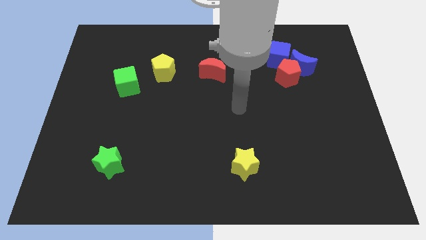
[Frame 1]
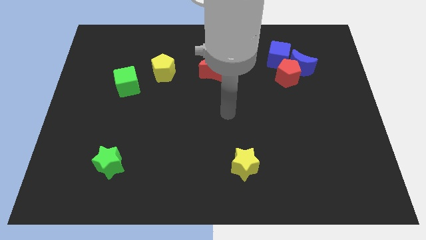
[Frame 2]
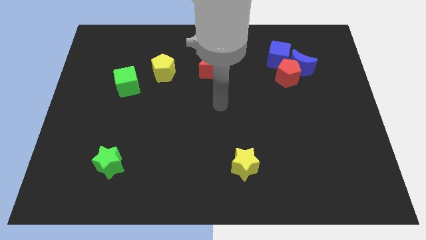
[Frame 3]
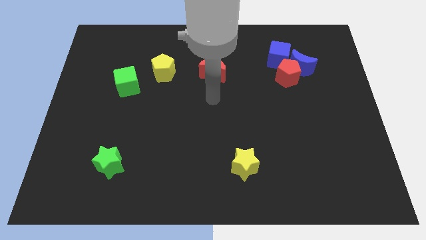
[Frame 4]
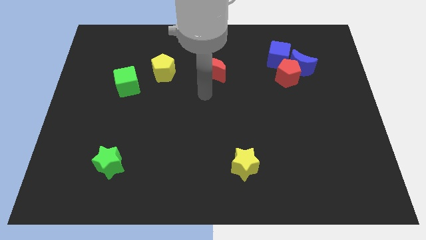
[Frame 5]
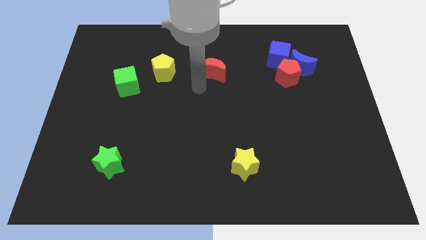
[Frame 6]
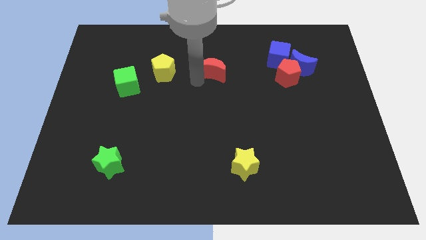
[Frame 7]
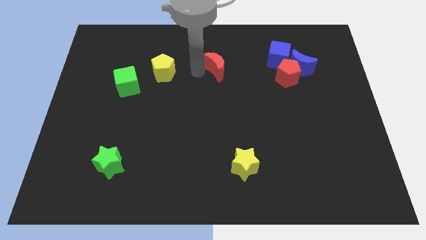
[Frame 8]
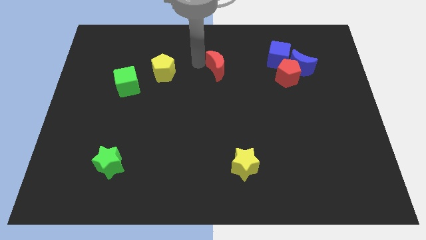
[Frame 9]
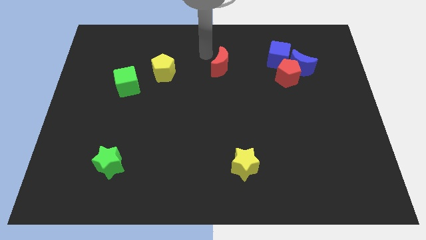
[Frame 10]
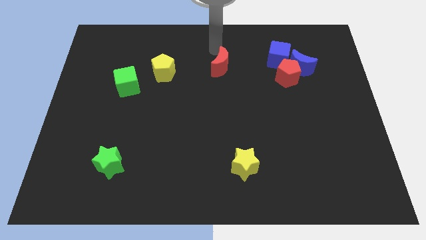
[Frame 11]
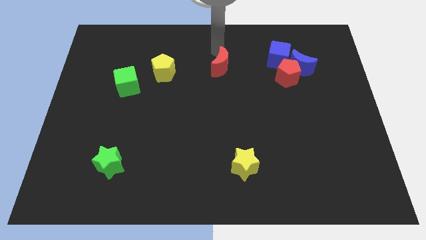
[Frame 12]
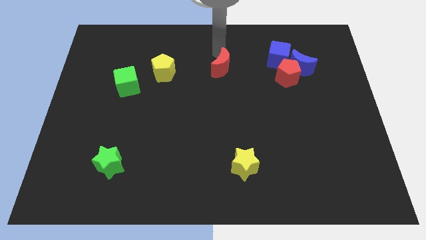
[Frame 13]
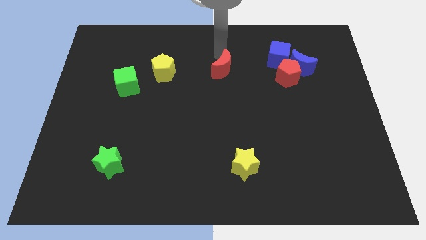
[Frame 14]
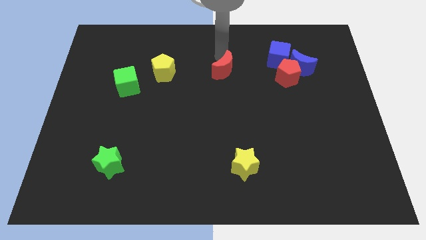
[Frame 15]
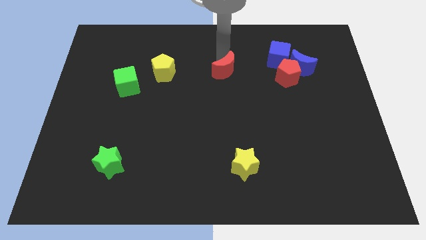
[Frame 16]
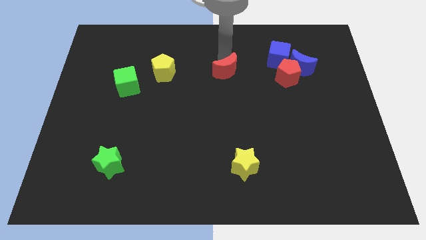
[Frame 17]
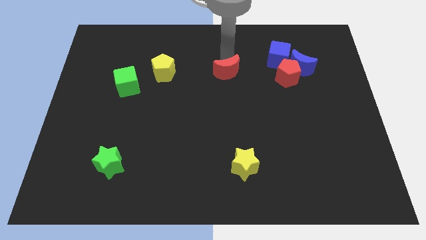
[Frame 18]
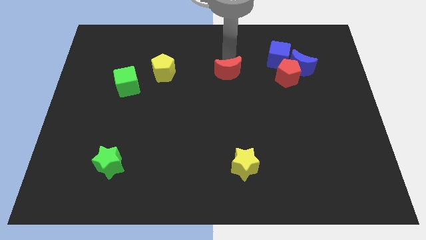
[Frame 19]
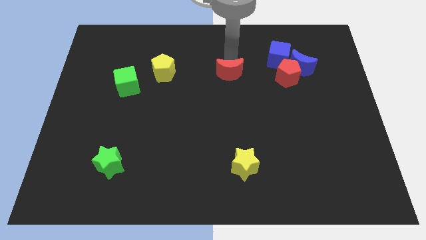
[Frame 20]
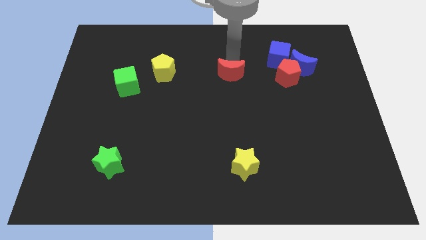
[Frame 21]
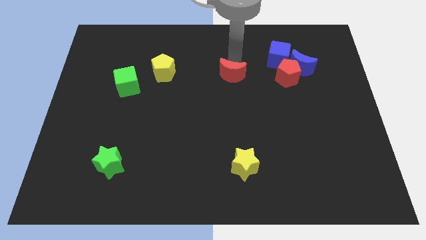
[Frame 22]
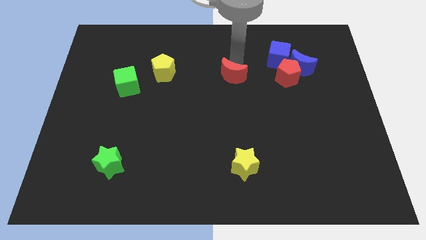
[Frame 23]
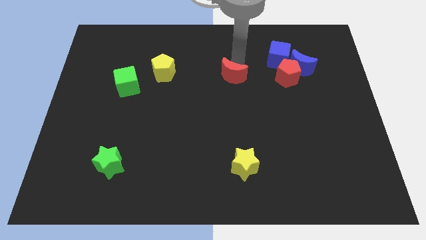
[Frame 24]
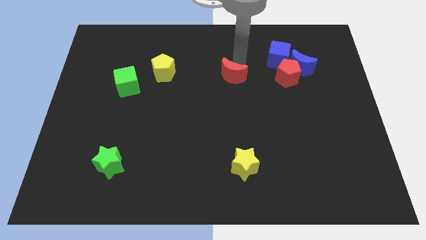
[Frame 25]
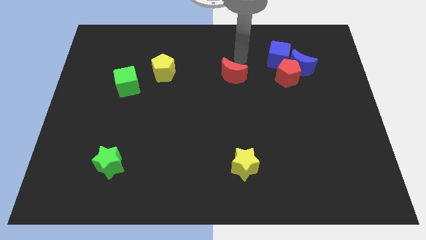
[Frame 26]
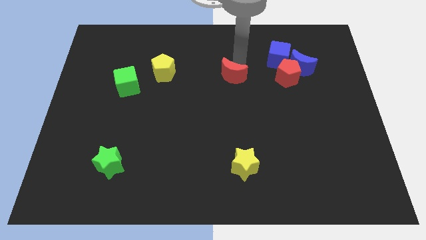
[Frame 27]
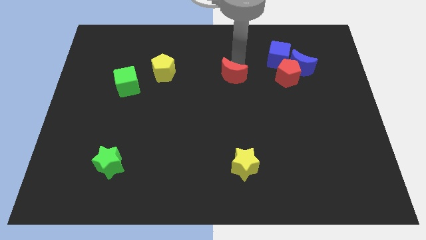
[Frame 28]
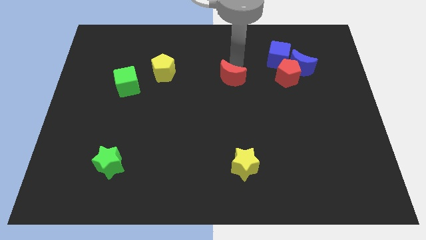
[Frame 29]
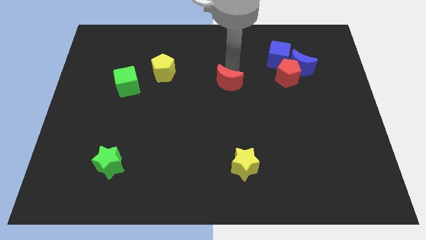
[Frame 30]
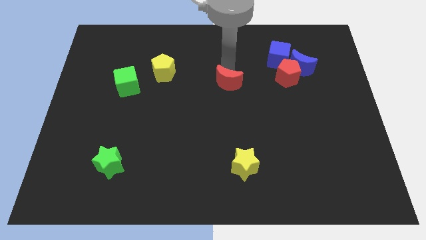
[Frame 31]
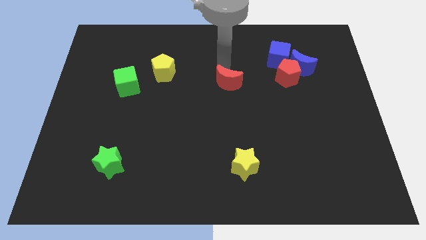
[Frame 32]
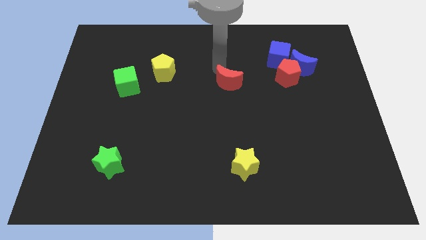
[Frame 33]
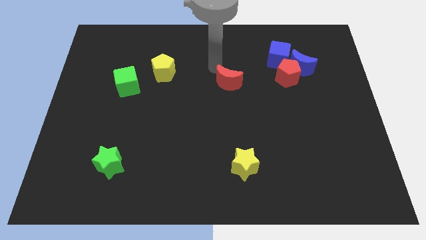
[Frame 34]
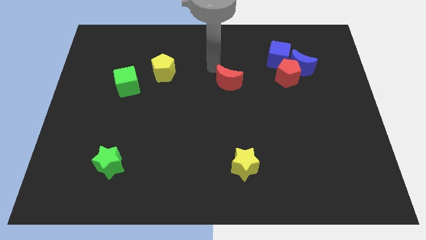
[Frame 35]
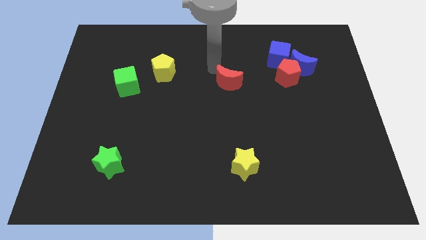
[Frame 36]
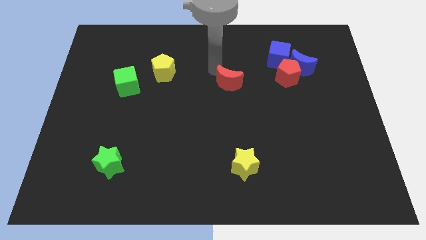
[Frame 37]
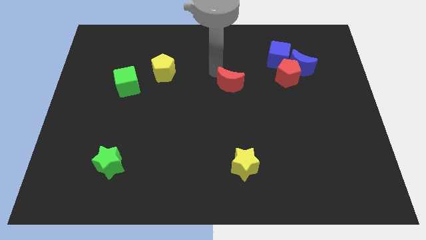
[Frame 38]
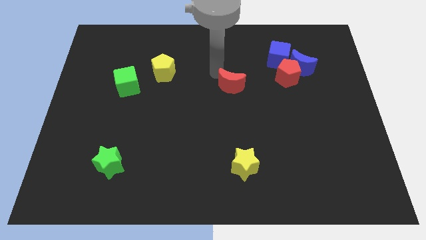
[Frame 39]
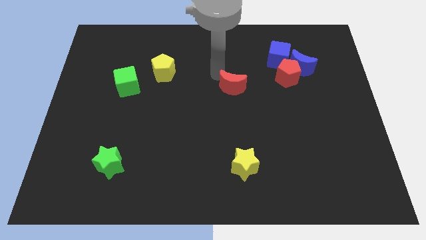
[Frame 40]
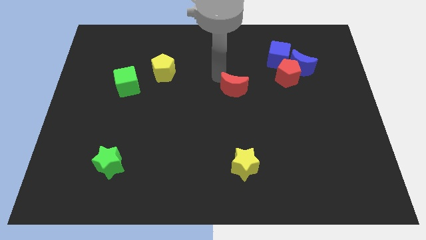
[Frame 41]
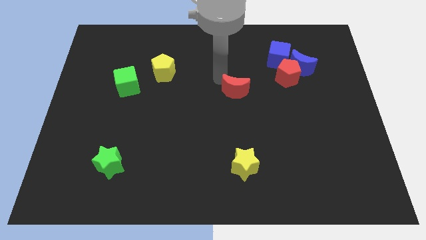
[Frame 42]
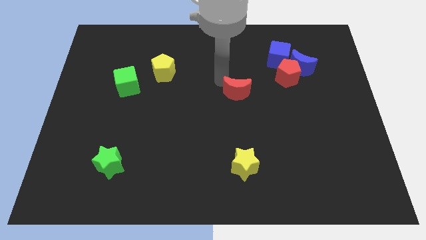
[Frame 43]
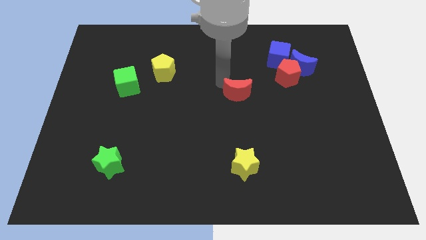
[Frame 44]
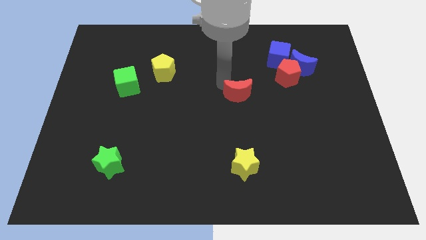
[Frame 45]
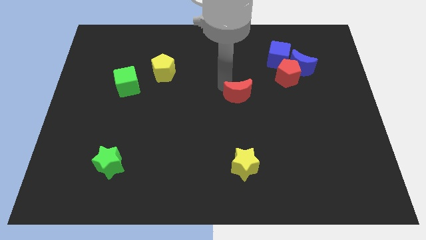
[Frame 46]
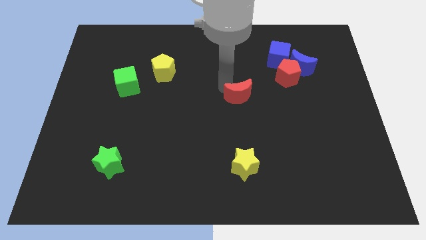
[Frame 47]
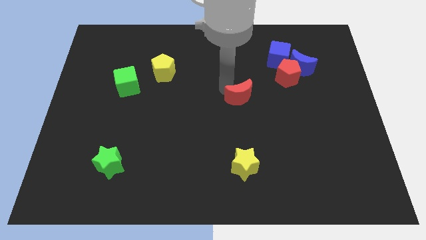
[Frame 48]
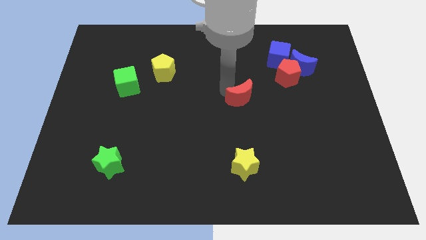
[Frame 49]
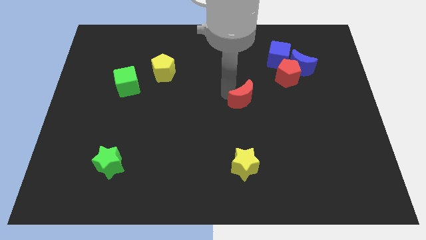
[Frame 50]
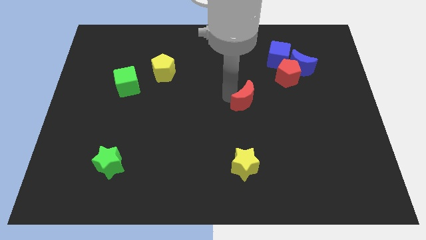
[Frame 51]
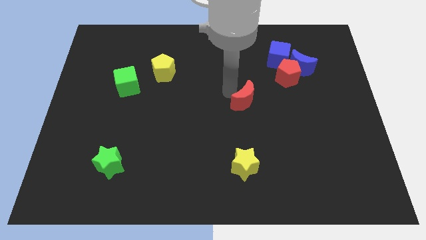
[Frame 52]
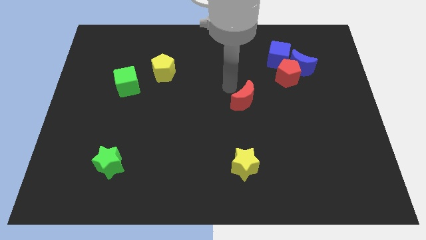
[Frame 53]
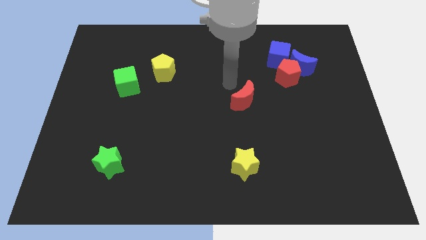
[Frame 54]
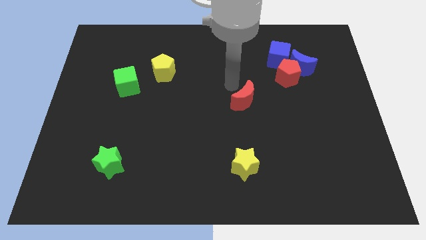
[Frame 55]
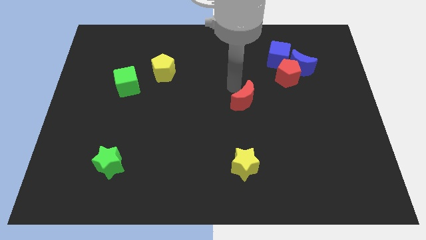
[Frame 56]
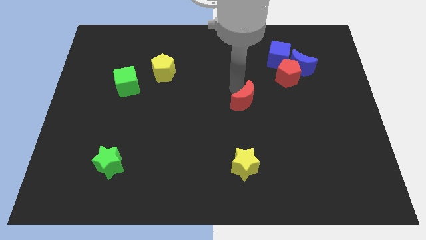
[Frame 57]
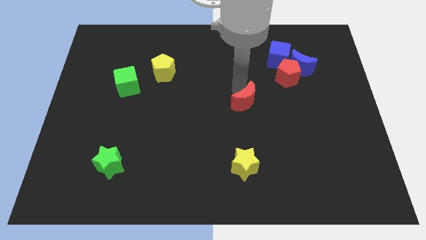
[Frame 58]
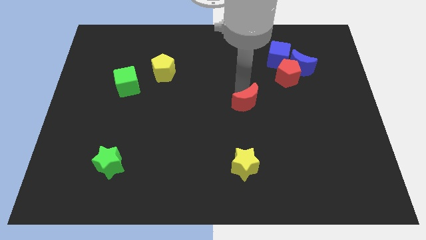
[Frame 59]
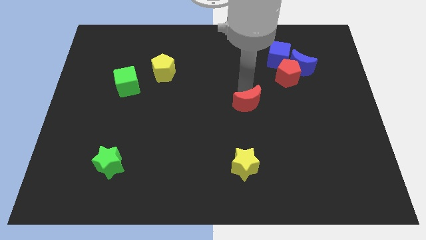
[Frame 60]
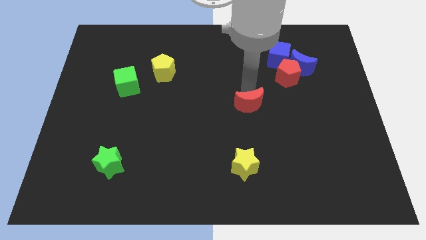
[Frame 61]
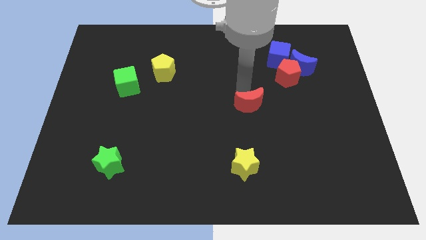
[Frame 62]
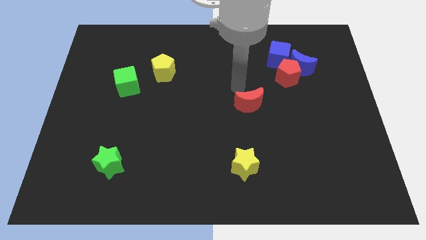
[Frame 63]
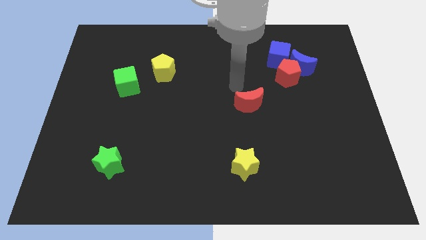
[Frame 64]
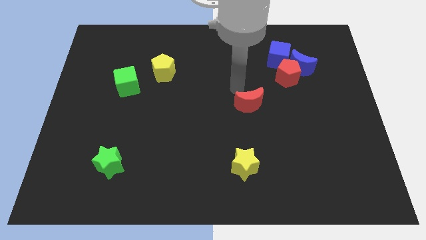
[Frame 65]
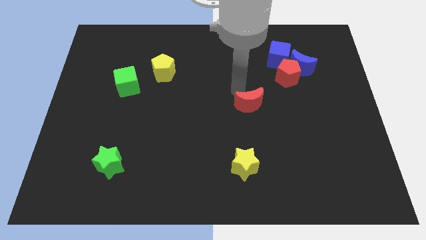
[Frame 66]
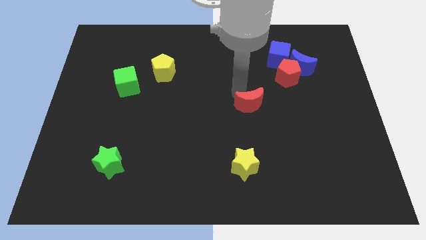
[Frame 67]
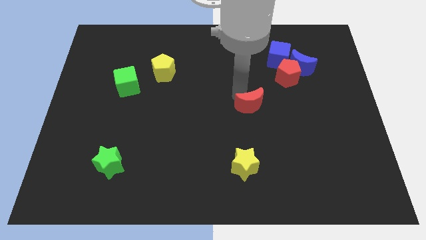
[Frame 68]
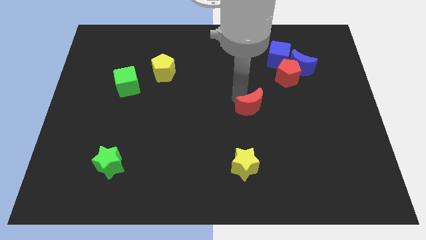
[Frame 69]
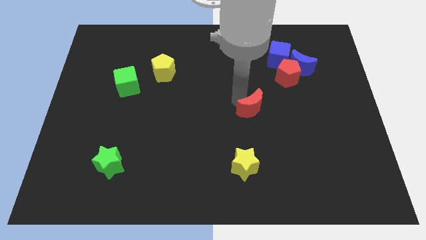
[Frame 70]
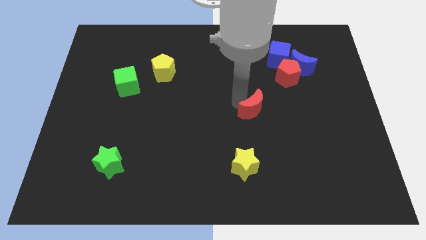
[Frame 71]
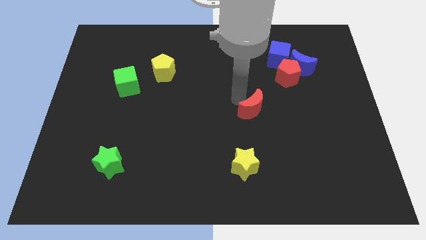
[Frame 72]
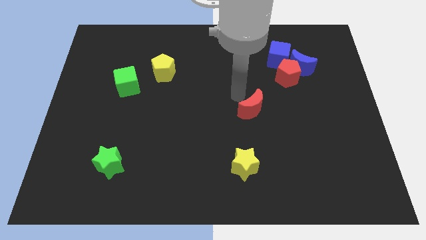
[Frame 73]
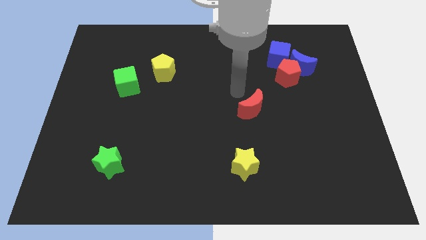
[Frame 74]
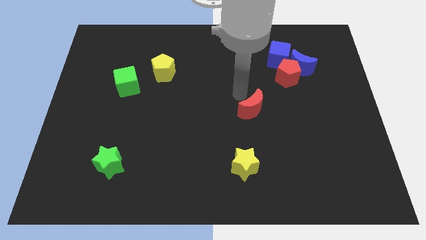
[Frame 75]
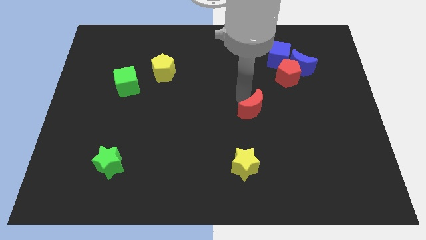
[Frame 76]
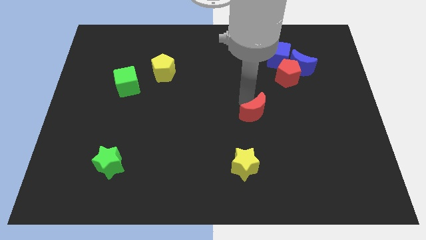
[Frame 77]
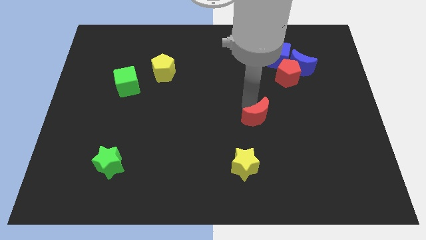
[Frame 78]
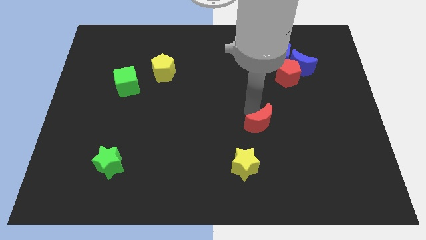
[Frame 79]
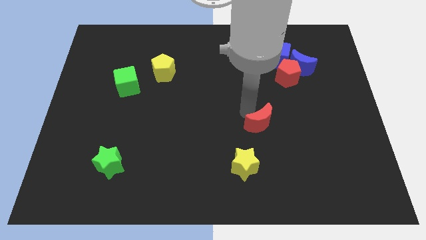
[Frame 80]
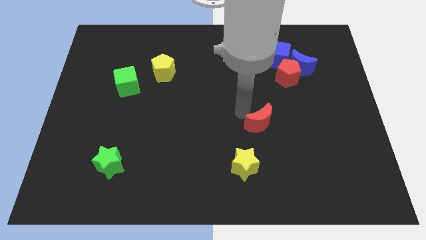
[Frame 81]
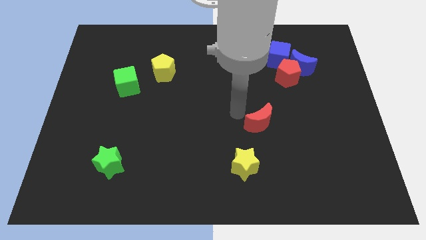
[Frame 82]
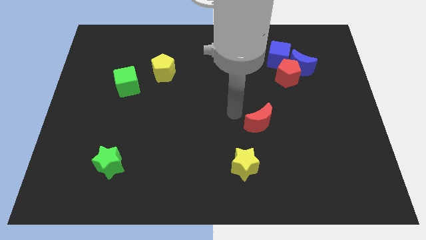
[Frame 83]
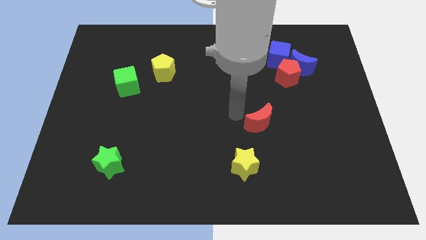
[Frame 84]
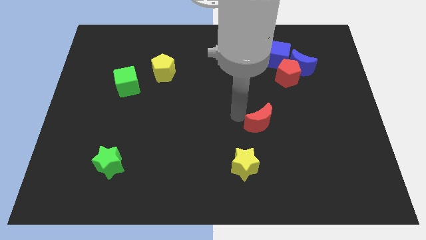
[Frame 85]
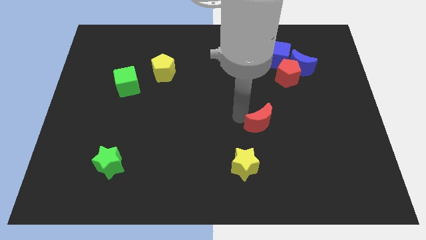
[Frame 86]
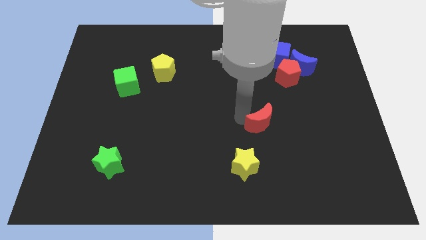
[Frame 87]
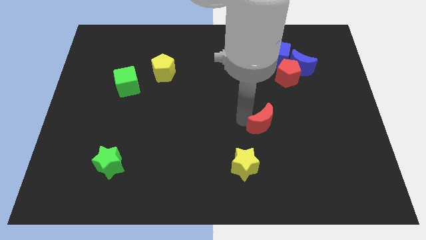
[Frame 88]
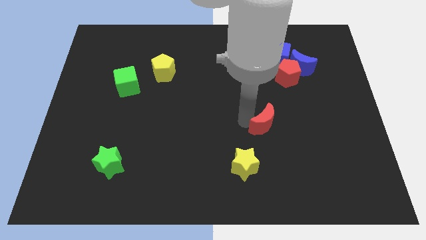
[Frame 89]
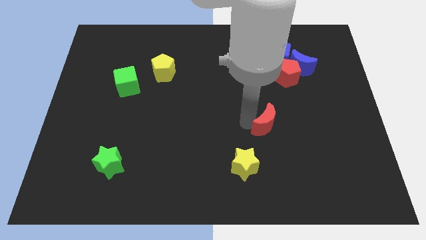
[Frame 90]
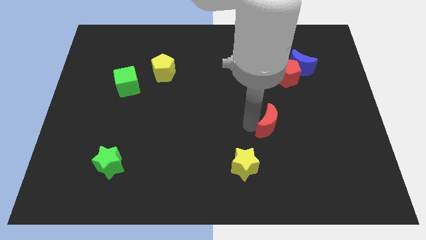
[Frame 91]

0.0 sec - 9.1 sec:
slide the red moon down and to the right
